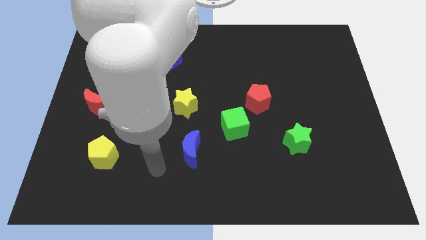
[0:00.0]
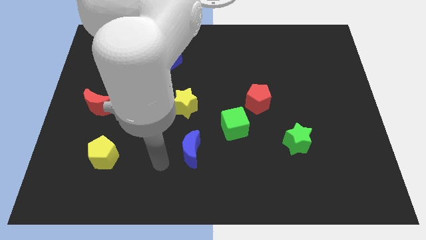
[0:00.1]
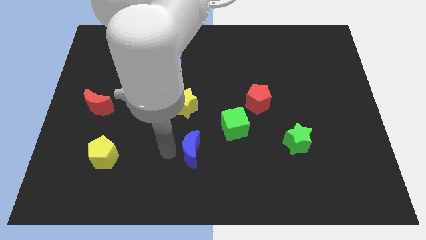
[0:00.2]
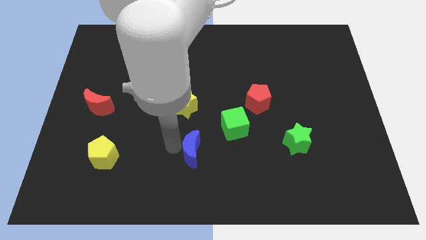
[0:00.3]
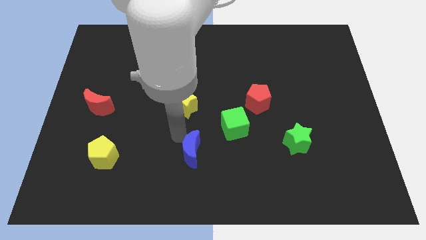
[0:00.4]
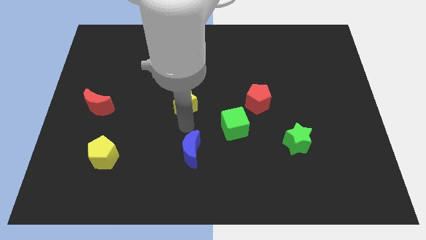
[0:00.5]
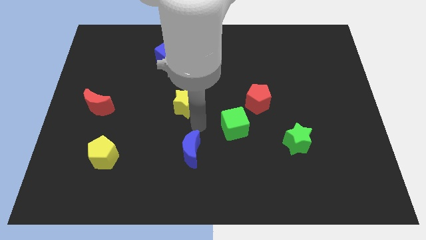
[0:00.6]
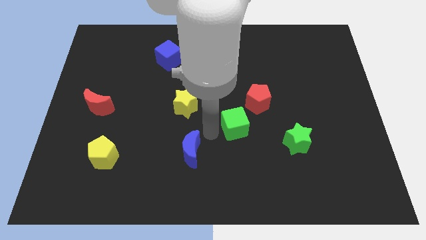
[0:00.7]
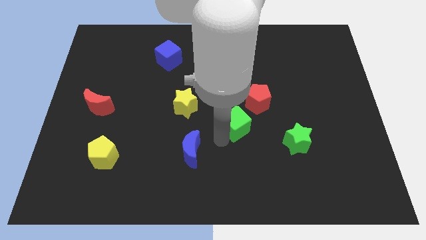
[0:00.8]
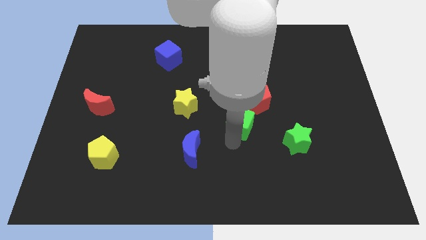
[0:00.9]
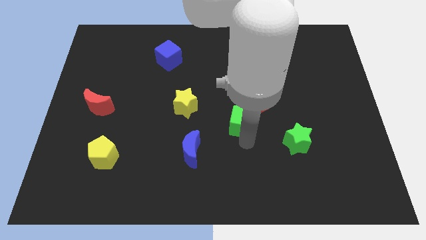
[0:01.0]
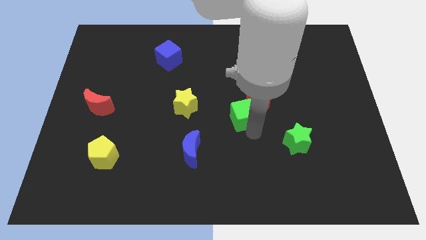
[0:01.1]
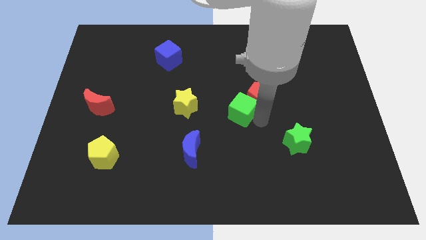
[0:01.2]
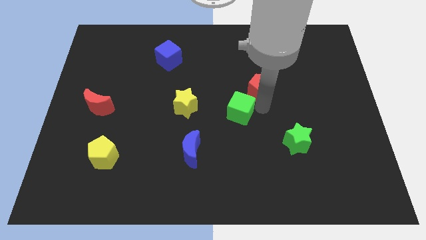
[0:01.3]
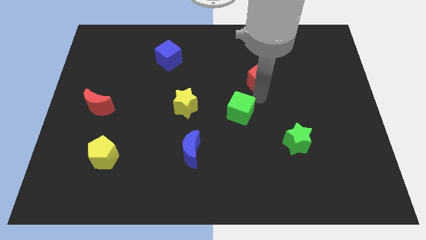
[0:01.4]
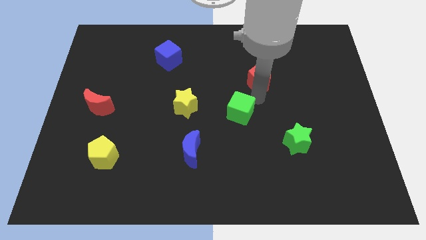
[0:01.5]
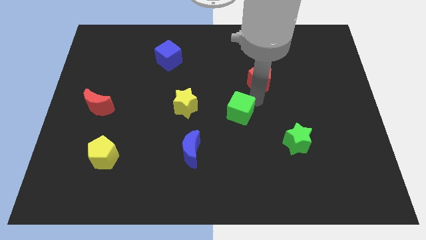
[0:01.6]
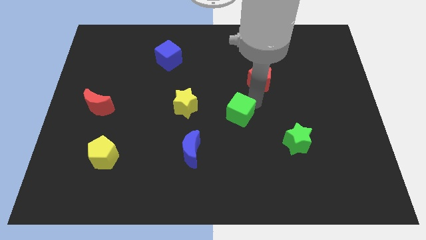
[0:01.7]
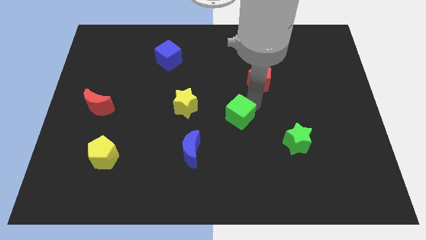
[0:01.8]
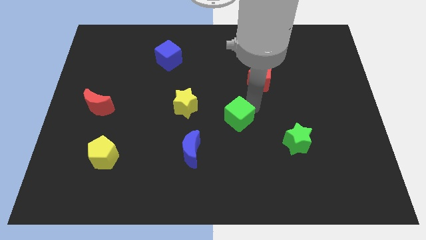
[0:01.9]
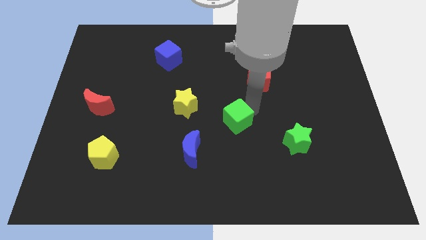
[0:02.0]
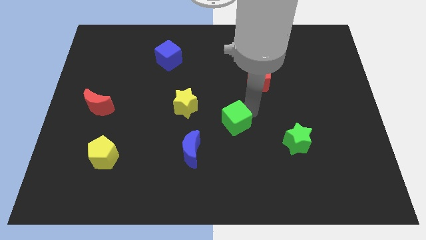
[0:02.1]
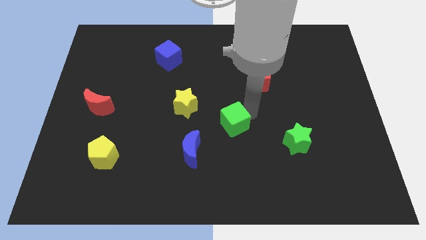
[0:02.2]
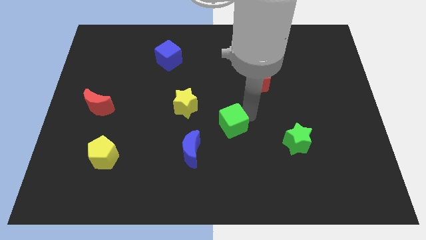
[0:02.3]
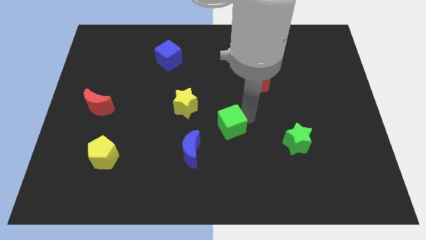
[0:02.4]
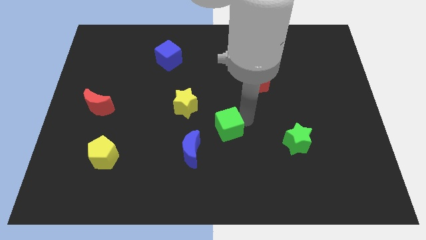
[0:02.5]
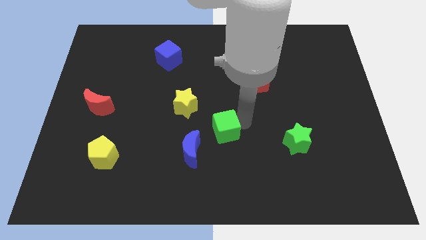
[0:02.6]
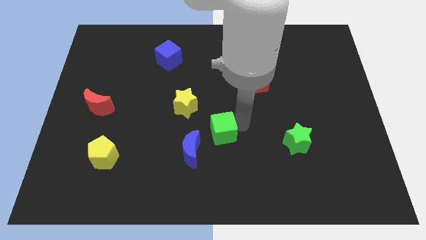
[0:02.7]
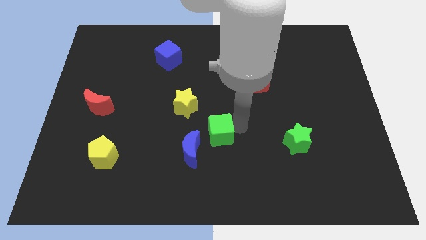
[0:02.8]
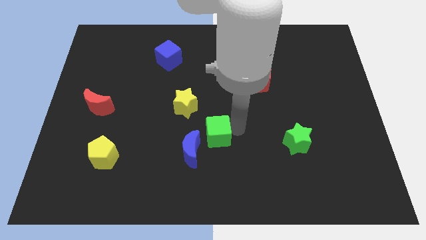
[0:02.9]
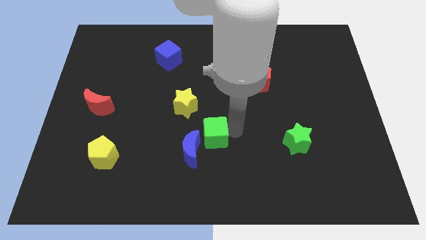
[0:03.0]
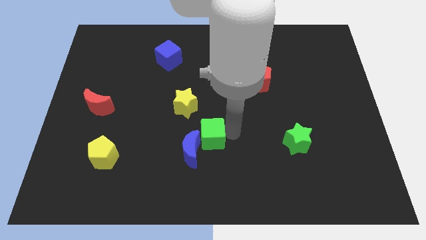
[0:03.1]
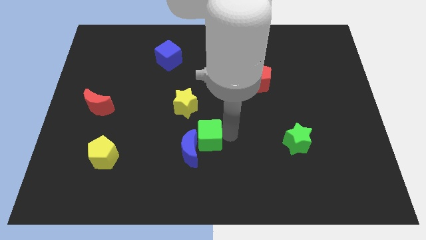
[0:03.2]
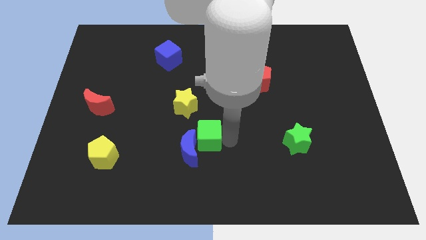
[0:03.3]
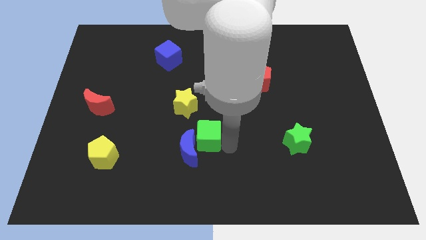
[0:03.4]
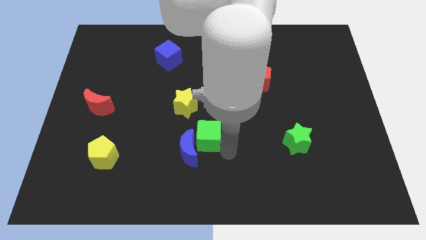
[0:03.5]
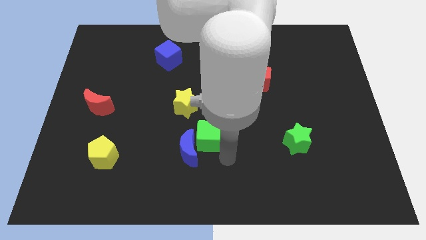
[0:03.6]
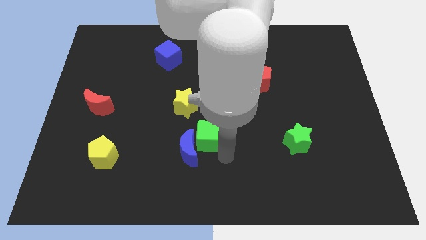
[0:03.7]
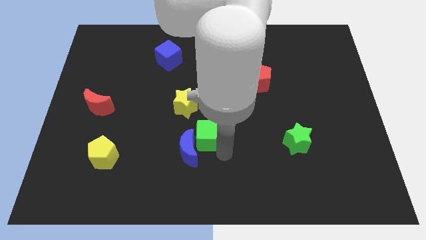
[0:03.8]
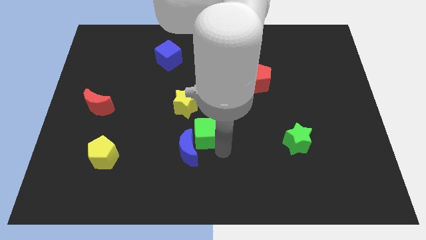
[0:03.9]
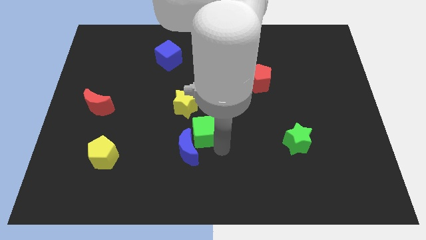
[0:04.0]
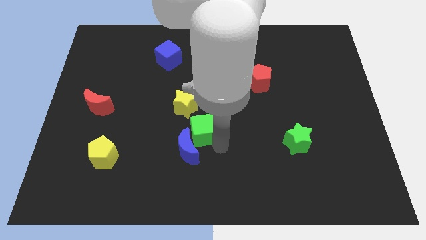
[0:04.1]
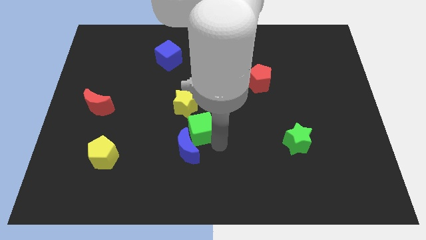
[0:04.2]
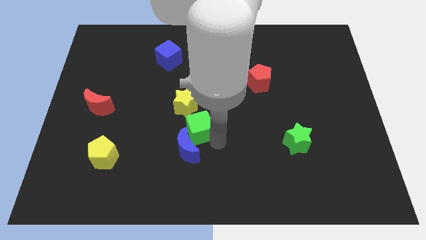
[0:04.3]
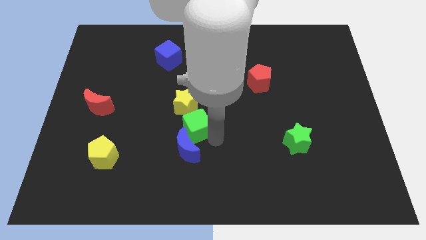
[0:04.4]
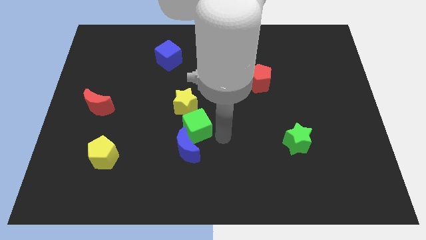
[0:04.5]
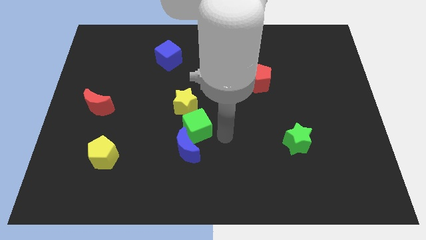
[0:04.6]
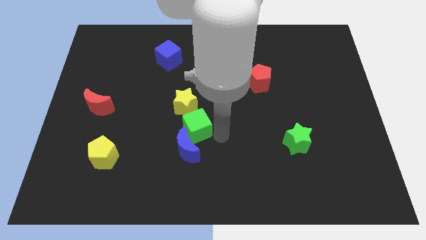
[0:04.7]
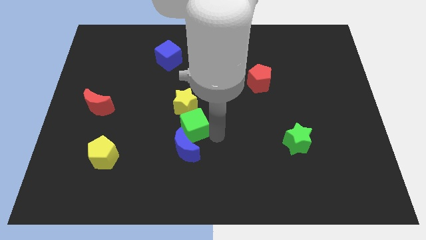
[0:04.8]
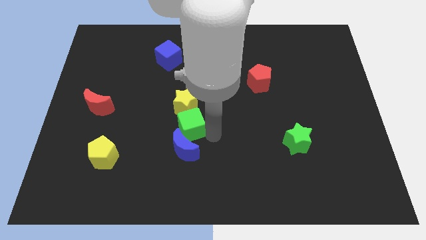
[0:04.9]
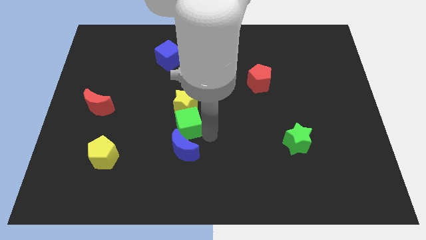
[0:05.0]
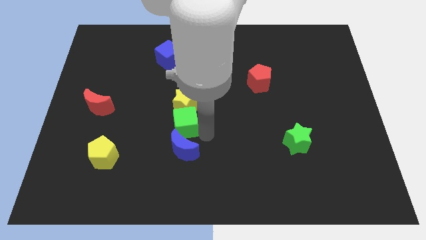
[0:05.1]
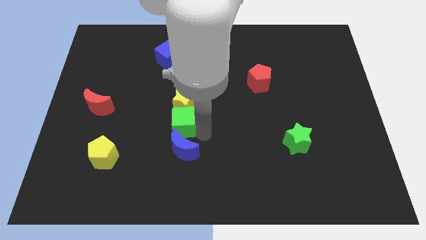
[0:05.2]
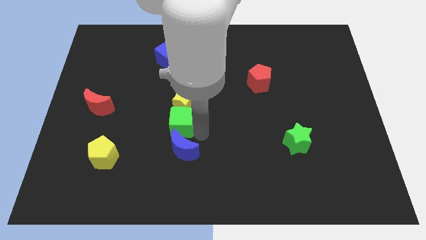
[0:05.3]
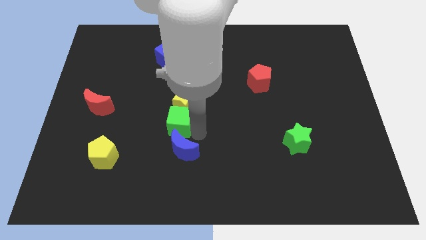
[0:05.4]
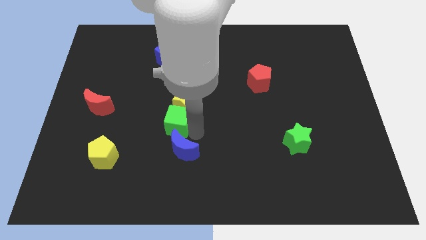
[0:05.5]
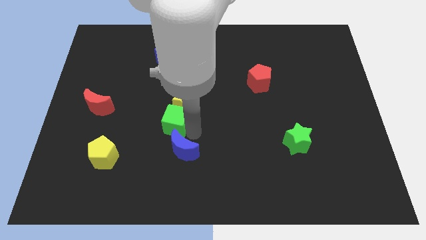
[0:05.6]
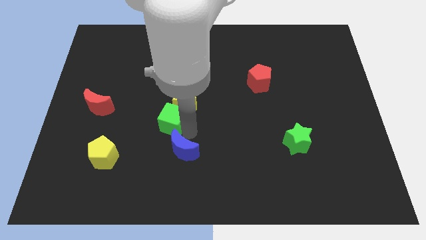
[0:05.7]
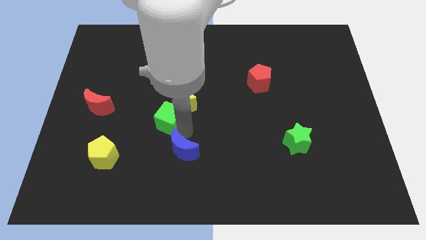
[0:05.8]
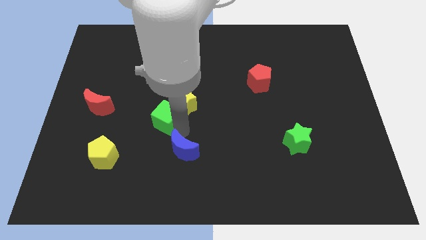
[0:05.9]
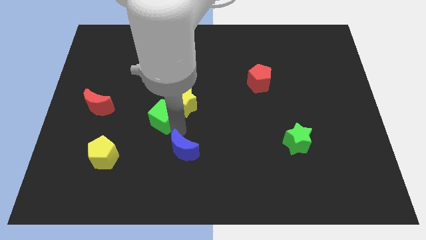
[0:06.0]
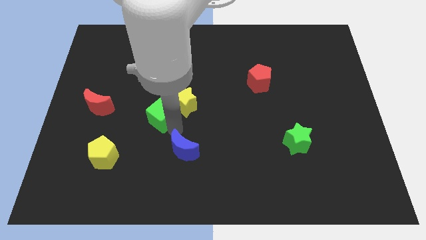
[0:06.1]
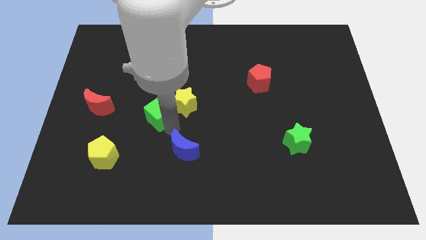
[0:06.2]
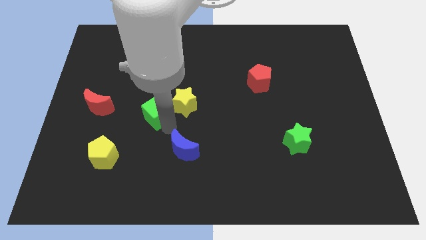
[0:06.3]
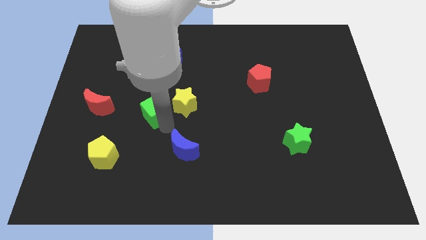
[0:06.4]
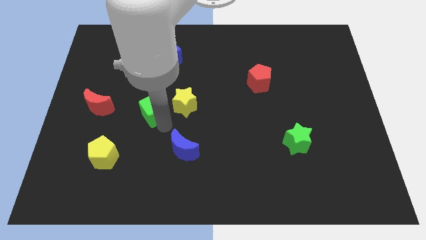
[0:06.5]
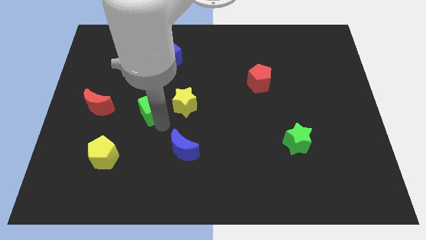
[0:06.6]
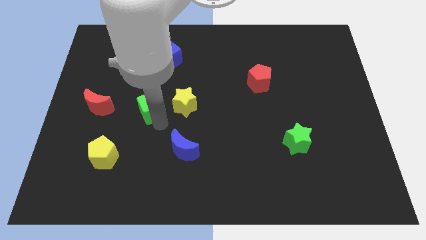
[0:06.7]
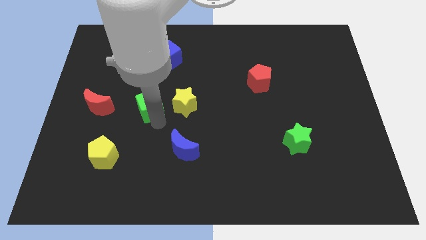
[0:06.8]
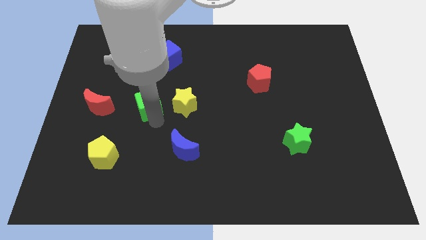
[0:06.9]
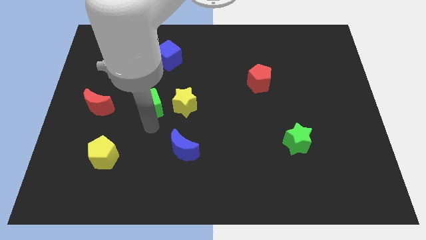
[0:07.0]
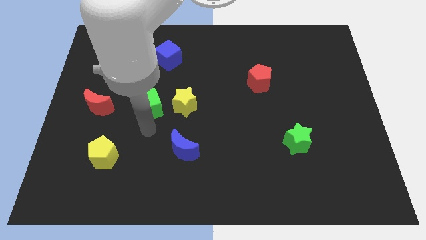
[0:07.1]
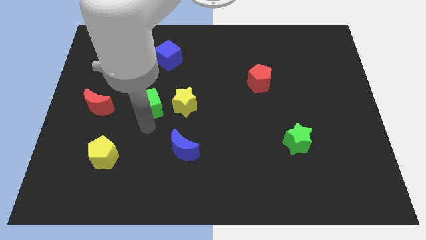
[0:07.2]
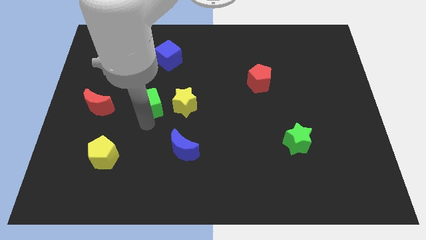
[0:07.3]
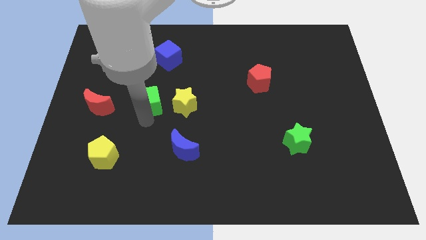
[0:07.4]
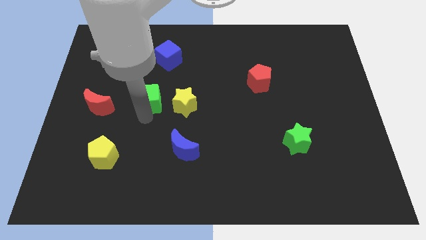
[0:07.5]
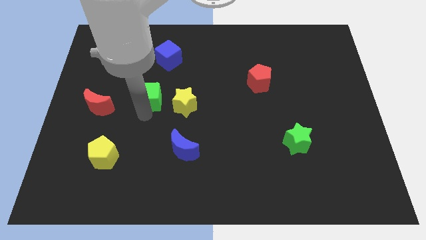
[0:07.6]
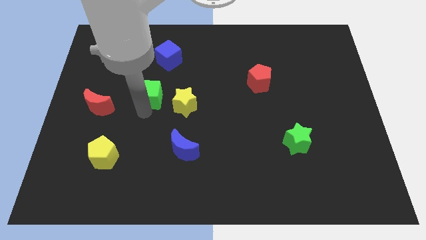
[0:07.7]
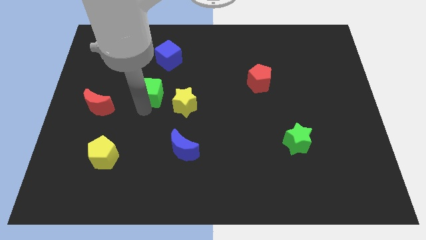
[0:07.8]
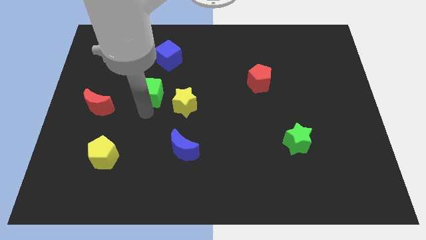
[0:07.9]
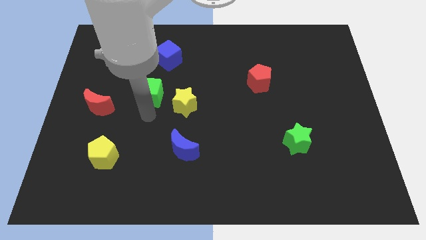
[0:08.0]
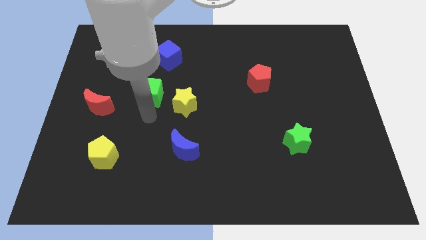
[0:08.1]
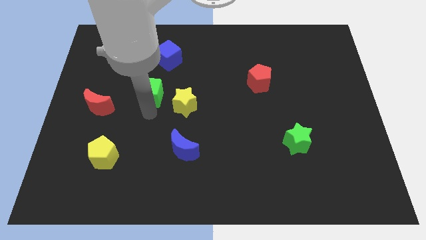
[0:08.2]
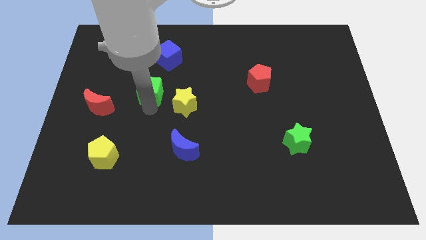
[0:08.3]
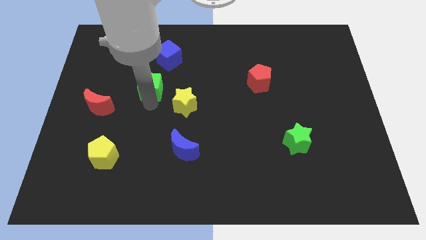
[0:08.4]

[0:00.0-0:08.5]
move the green cube diagonally upwards and to the left
